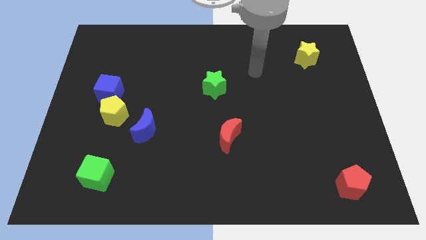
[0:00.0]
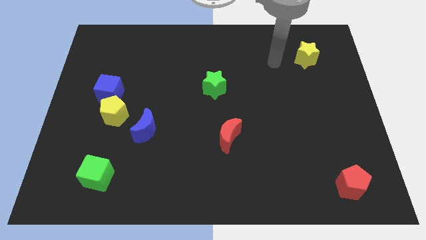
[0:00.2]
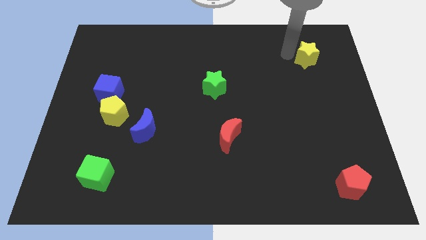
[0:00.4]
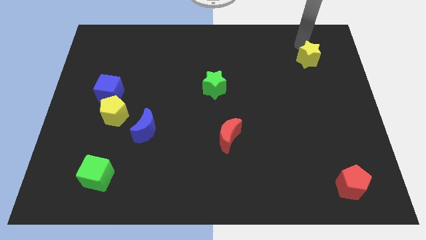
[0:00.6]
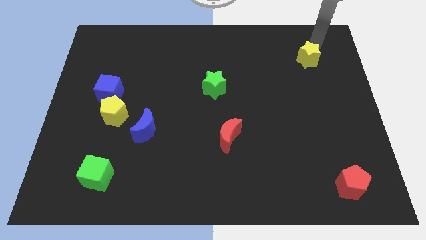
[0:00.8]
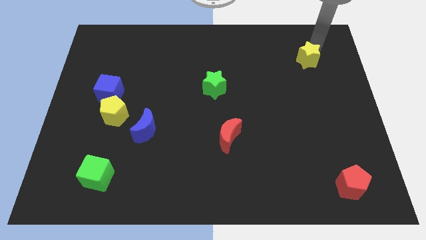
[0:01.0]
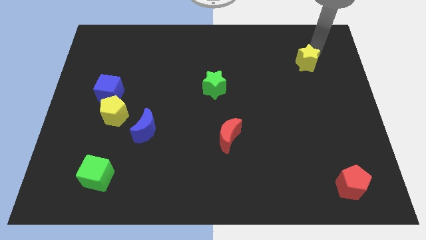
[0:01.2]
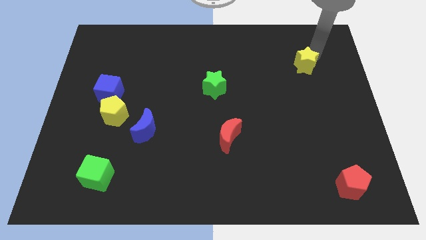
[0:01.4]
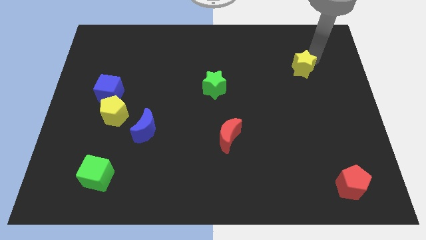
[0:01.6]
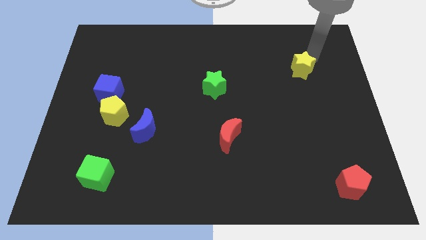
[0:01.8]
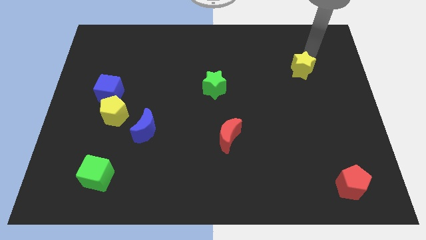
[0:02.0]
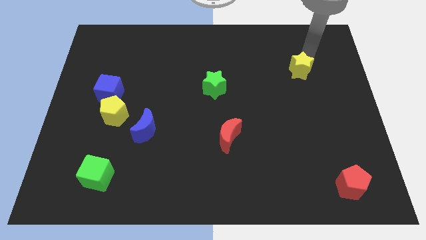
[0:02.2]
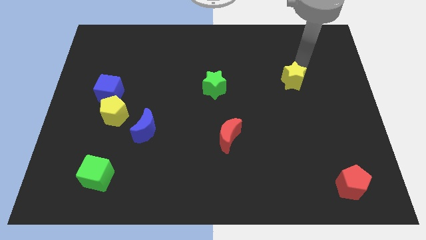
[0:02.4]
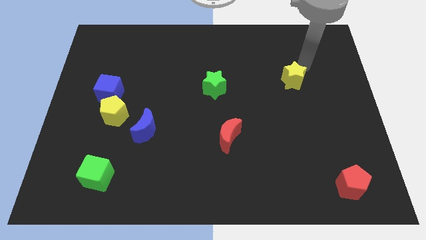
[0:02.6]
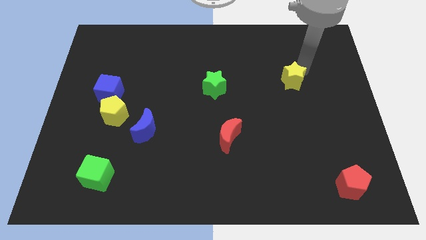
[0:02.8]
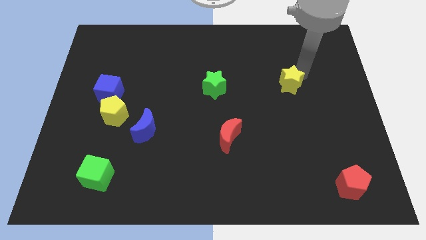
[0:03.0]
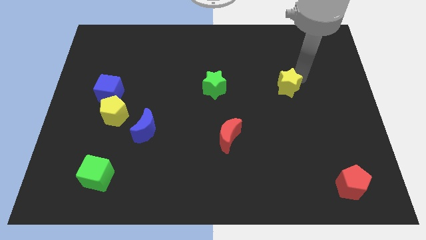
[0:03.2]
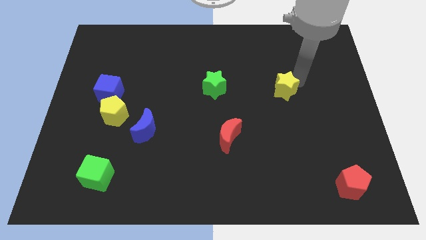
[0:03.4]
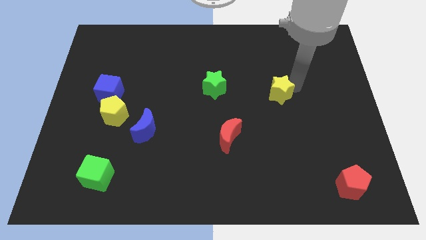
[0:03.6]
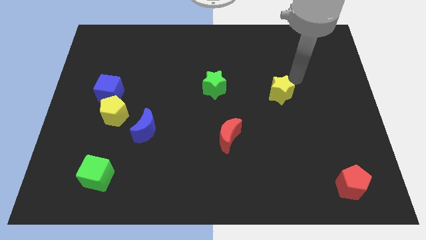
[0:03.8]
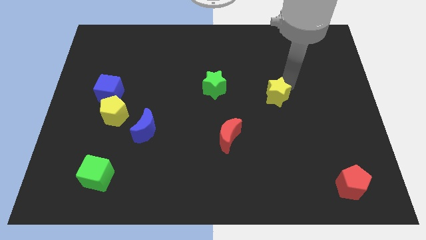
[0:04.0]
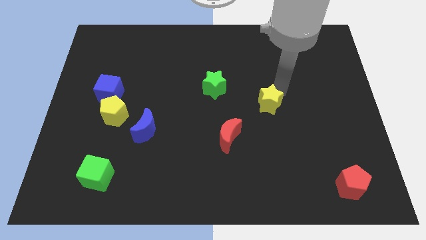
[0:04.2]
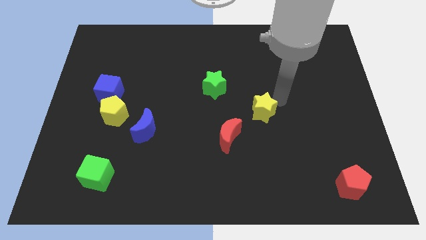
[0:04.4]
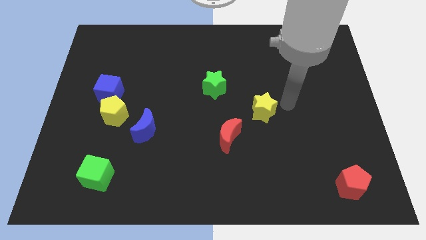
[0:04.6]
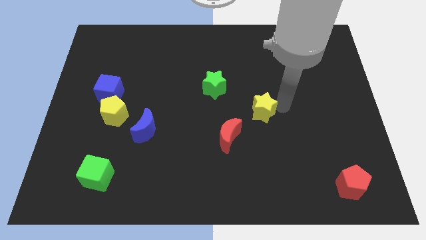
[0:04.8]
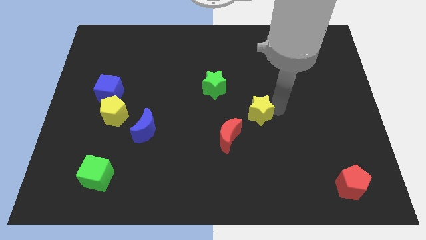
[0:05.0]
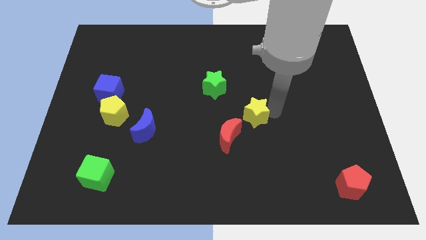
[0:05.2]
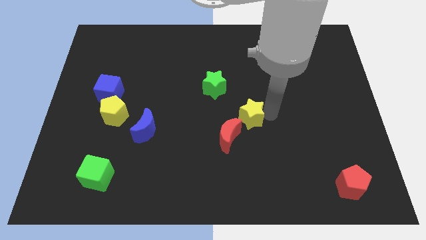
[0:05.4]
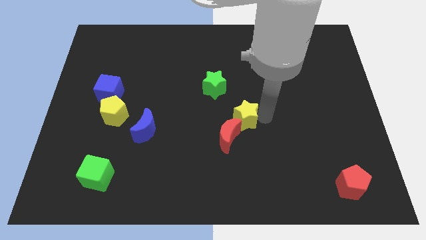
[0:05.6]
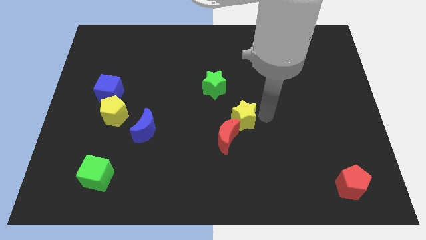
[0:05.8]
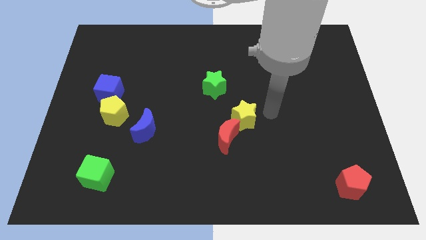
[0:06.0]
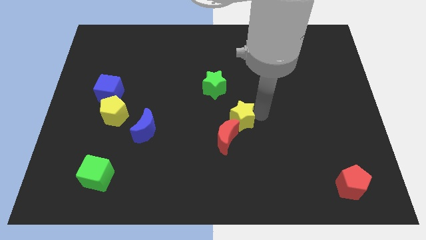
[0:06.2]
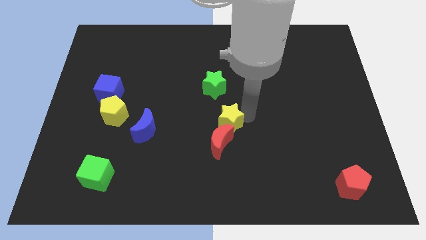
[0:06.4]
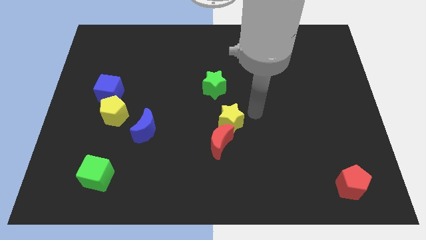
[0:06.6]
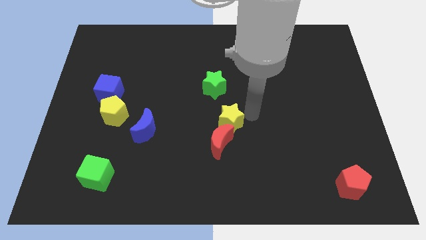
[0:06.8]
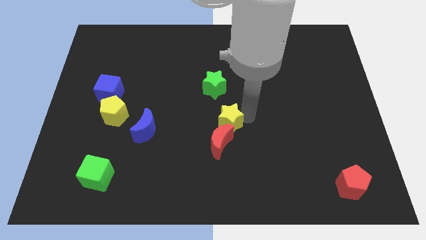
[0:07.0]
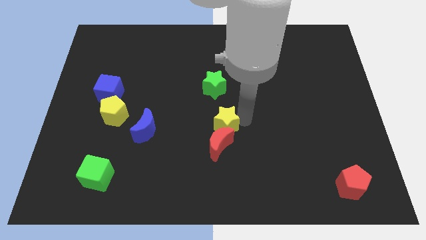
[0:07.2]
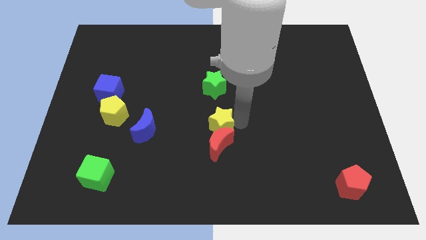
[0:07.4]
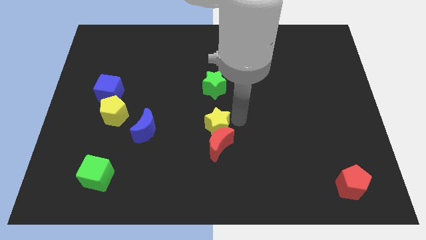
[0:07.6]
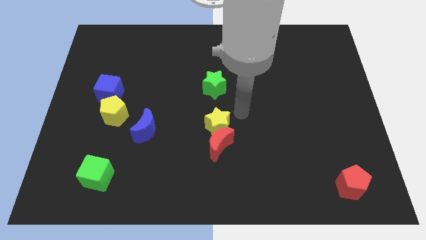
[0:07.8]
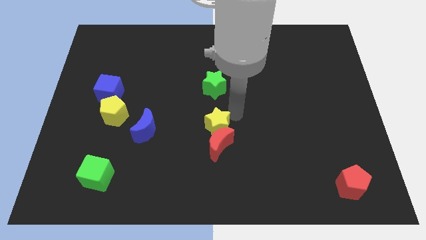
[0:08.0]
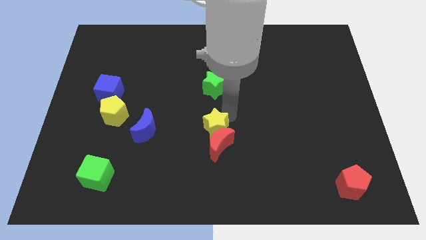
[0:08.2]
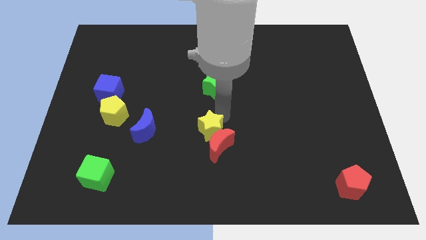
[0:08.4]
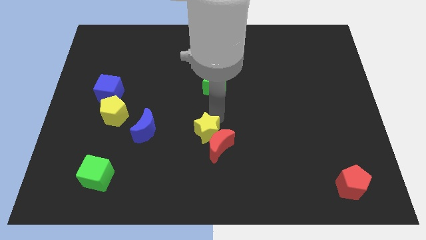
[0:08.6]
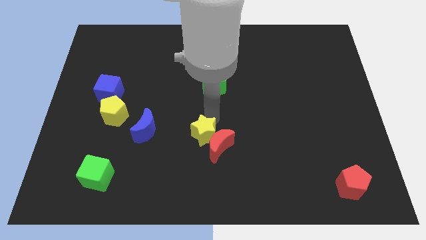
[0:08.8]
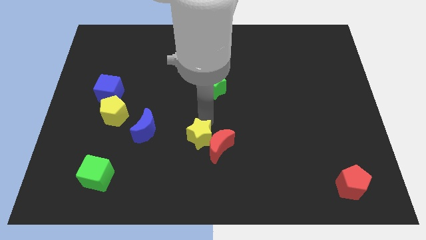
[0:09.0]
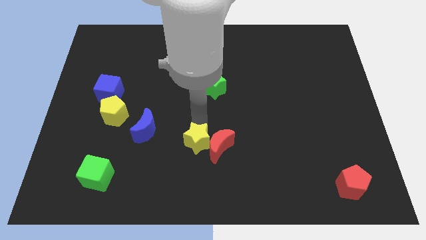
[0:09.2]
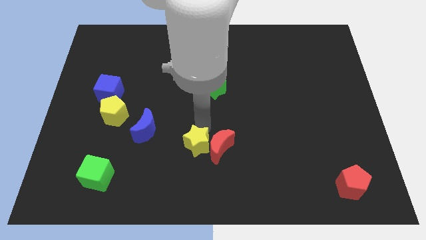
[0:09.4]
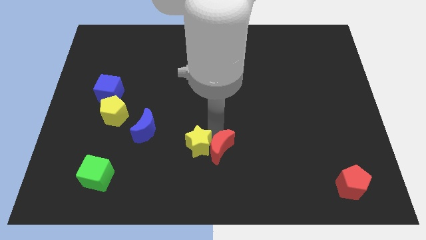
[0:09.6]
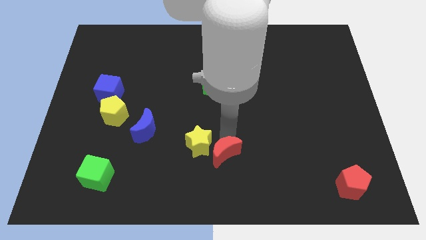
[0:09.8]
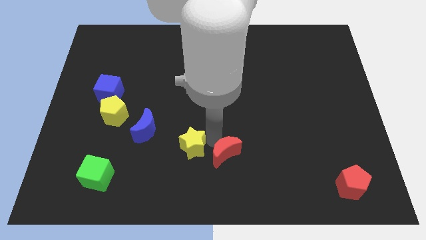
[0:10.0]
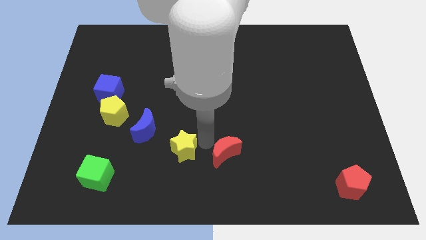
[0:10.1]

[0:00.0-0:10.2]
move the yellow star diagonally down and to the right of the blue moon

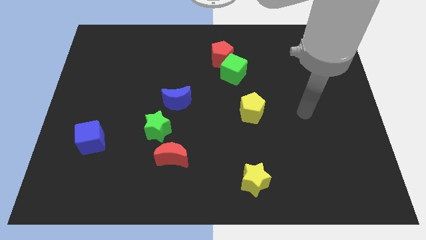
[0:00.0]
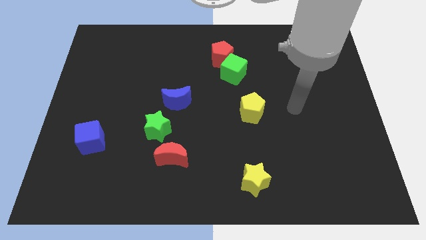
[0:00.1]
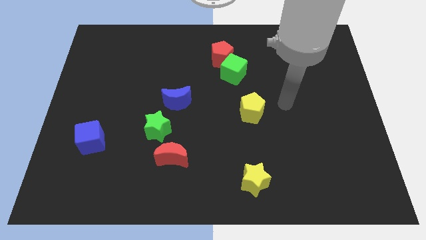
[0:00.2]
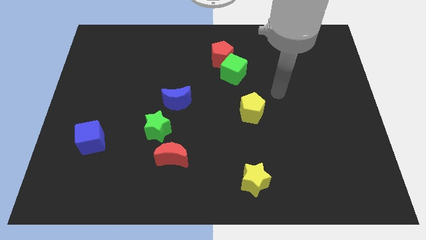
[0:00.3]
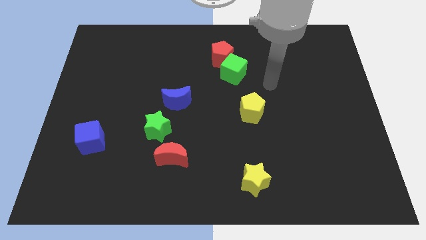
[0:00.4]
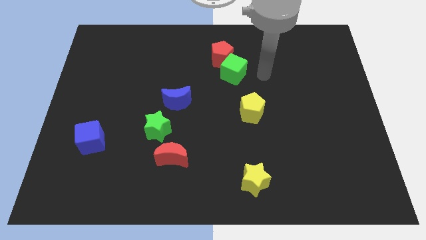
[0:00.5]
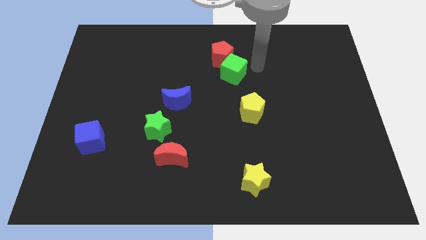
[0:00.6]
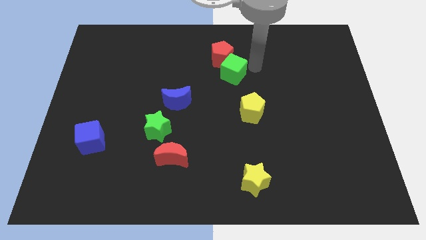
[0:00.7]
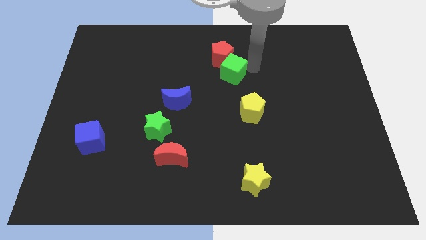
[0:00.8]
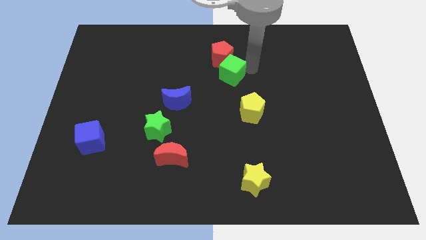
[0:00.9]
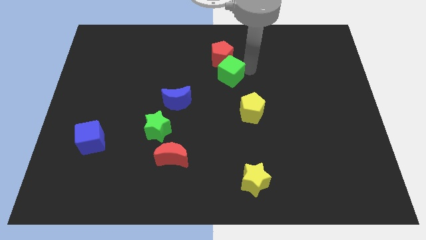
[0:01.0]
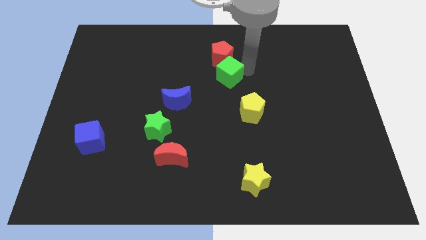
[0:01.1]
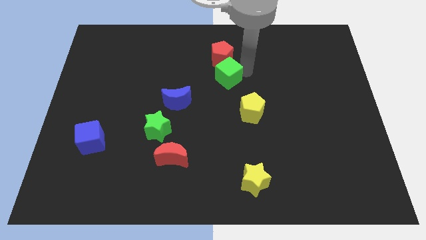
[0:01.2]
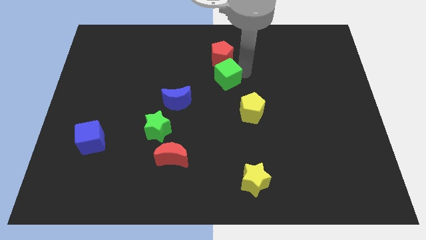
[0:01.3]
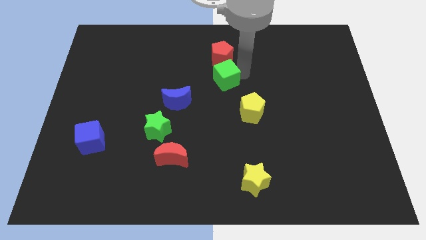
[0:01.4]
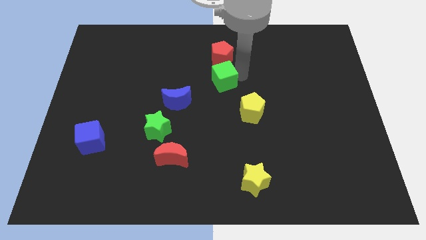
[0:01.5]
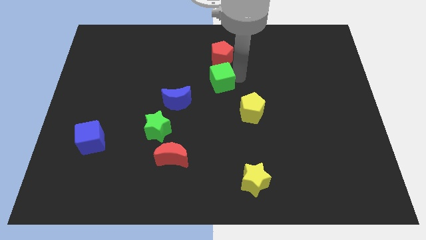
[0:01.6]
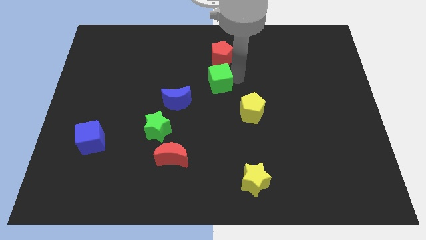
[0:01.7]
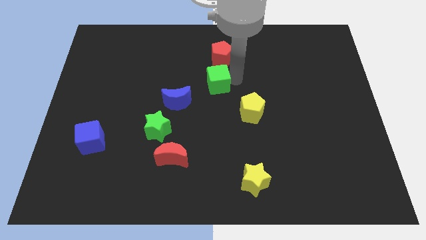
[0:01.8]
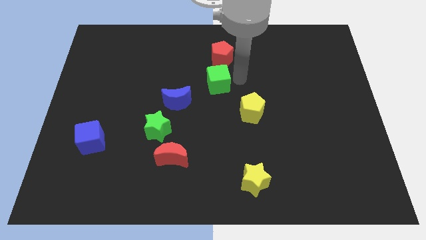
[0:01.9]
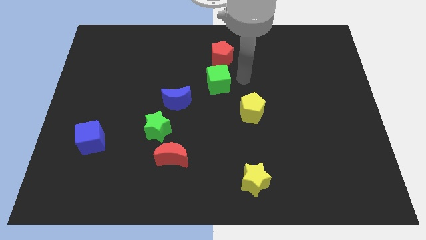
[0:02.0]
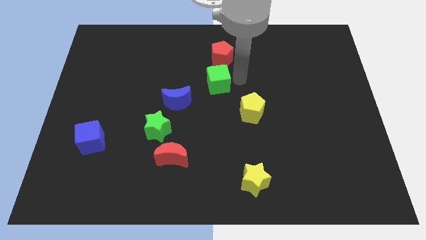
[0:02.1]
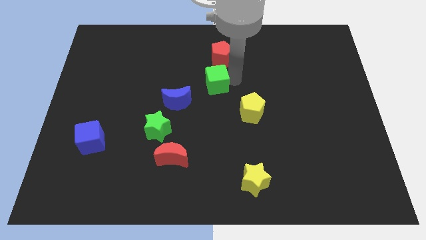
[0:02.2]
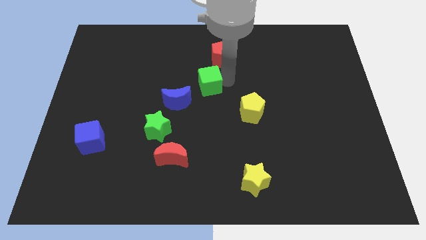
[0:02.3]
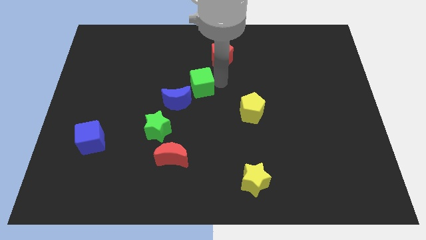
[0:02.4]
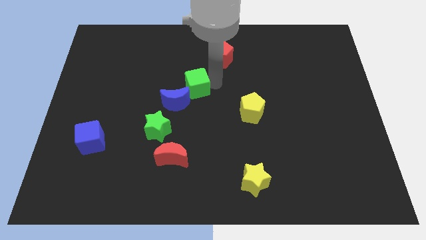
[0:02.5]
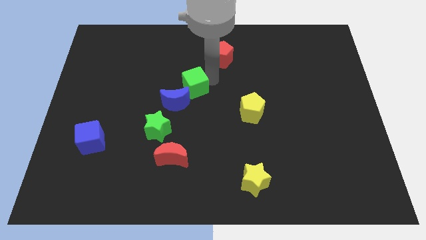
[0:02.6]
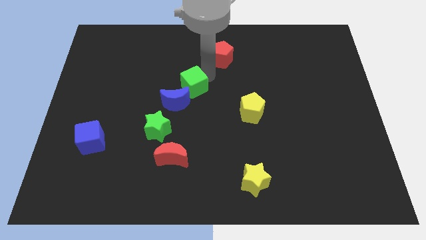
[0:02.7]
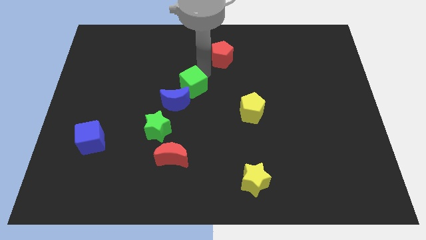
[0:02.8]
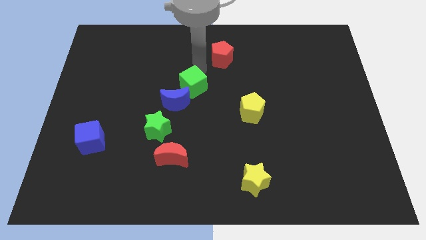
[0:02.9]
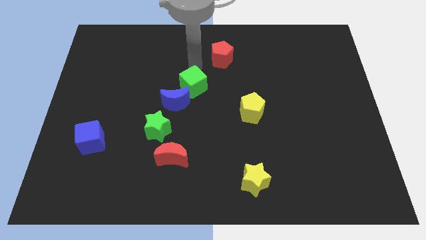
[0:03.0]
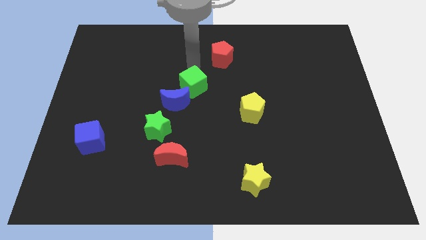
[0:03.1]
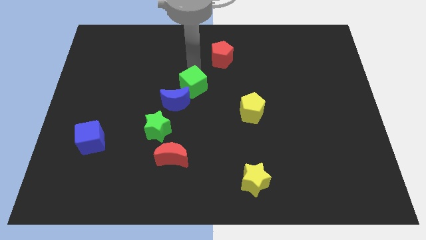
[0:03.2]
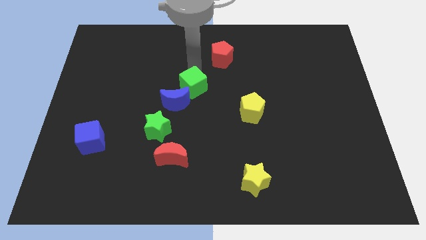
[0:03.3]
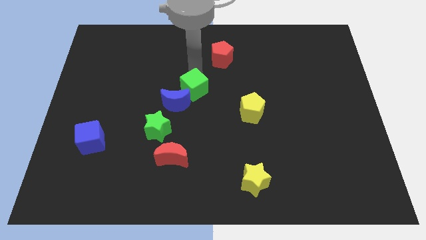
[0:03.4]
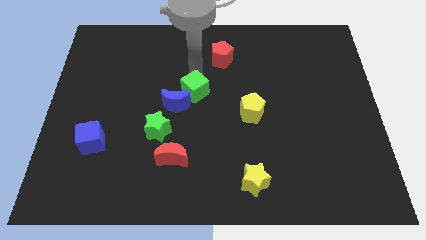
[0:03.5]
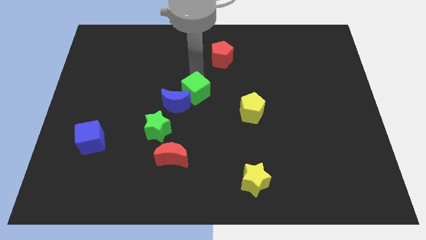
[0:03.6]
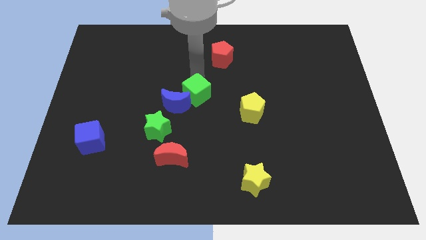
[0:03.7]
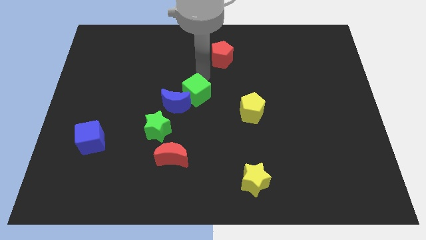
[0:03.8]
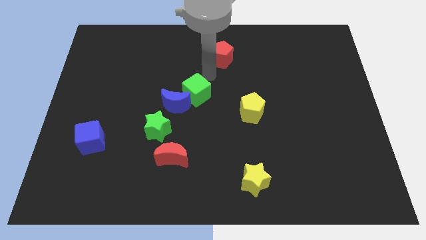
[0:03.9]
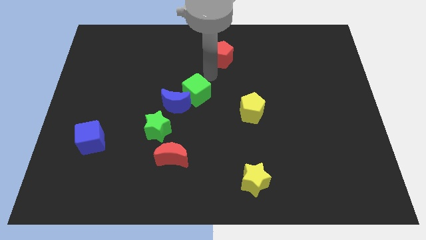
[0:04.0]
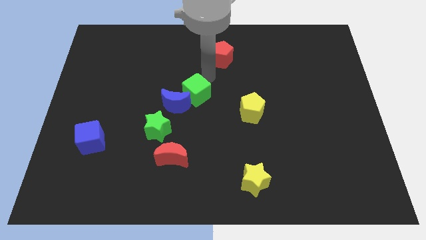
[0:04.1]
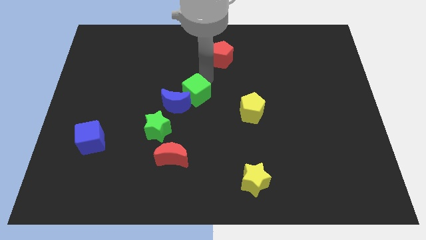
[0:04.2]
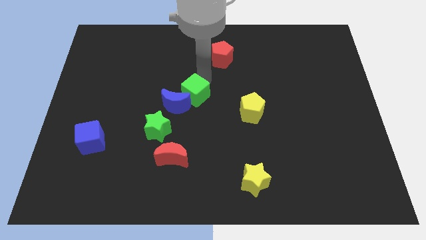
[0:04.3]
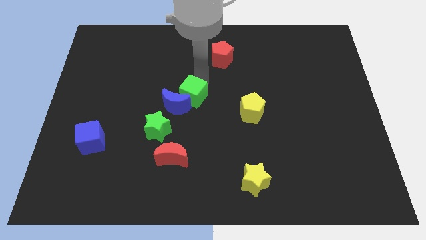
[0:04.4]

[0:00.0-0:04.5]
push the green cube diagonally up and to the right of the green star
